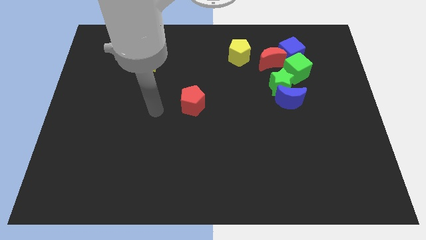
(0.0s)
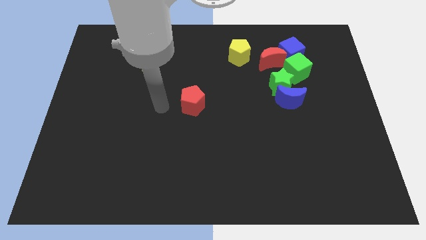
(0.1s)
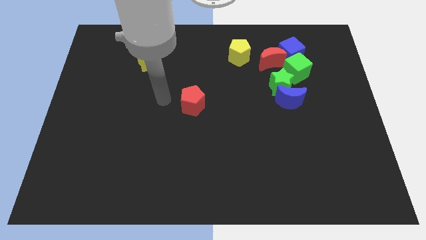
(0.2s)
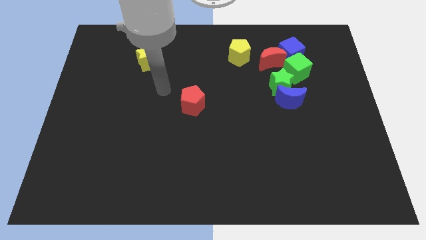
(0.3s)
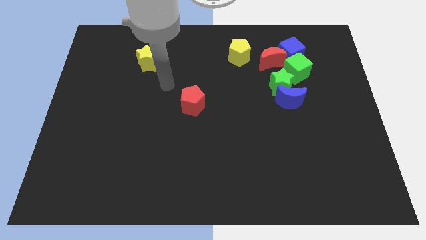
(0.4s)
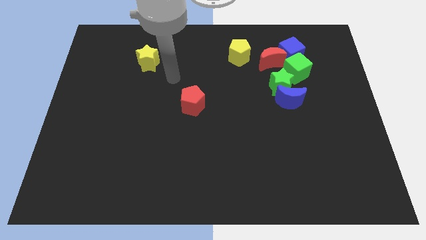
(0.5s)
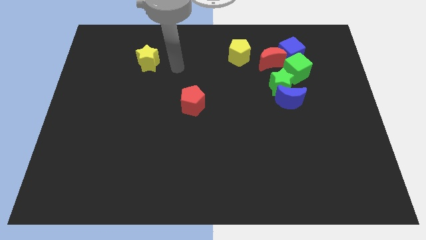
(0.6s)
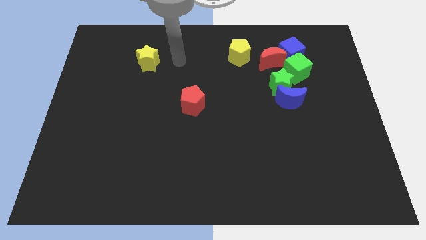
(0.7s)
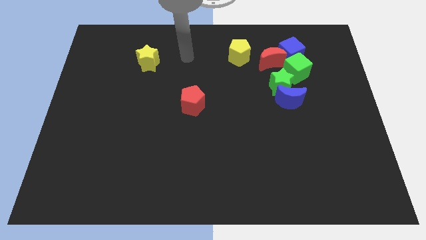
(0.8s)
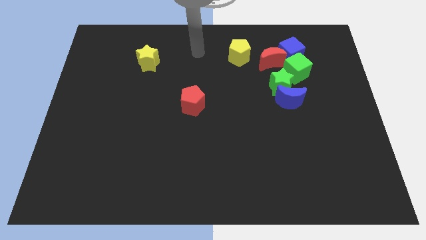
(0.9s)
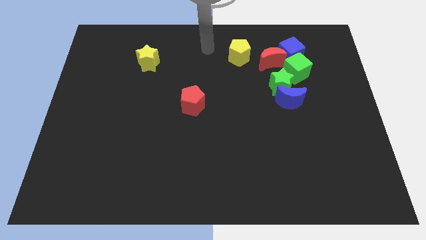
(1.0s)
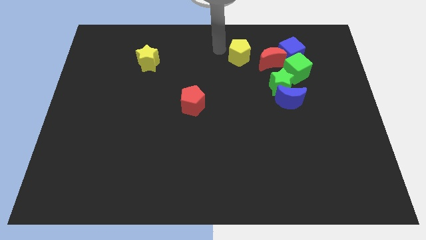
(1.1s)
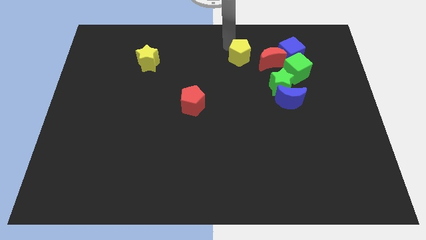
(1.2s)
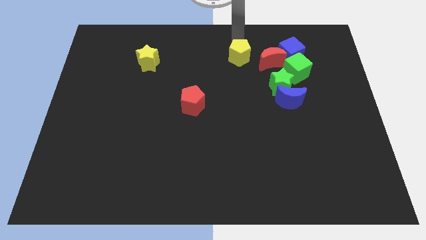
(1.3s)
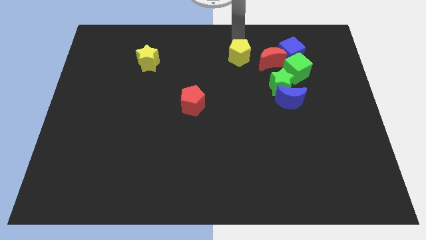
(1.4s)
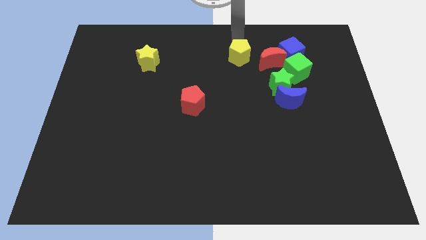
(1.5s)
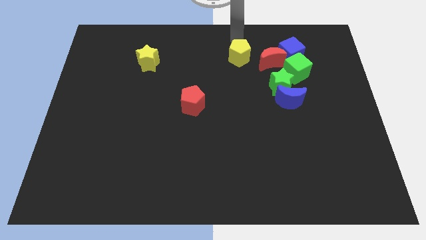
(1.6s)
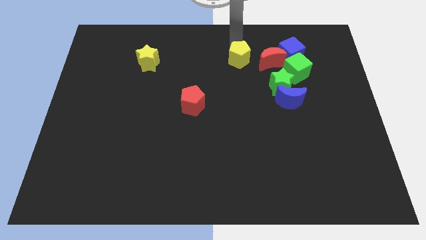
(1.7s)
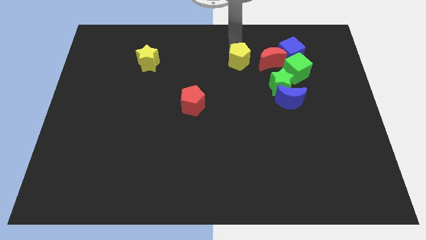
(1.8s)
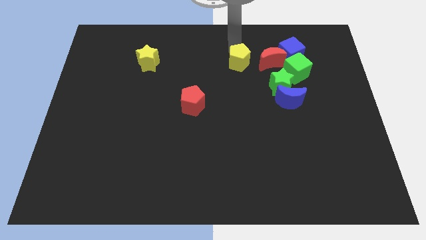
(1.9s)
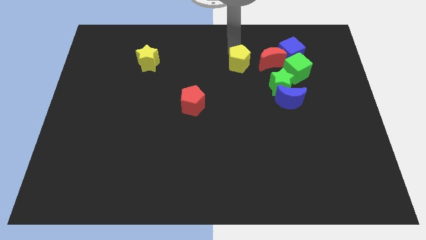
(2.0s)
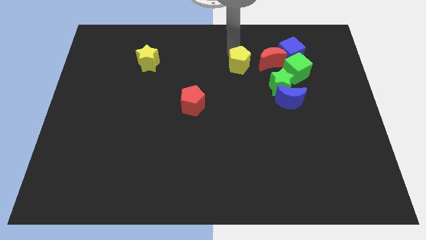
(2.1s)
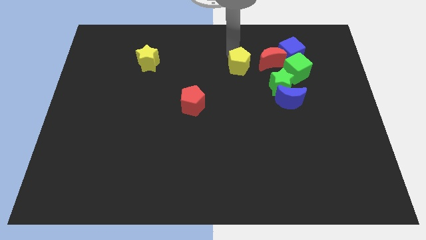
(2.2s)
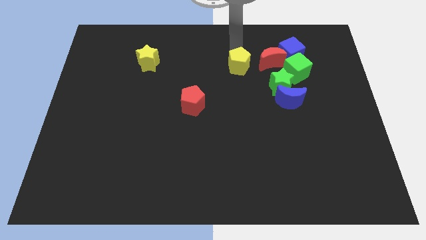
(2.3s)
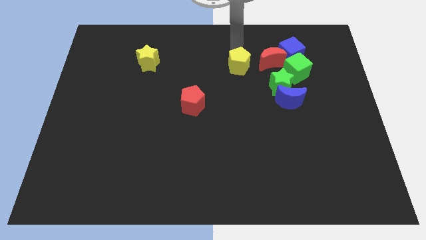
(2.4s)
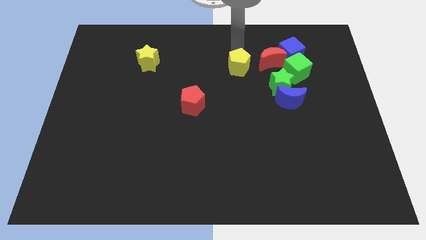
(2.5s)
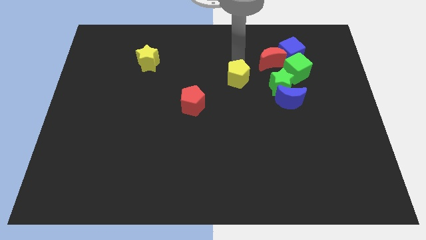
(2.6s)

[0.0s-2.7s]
push the yellow pentagon a little bit down

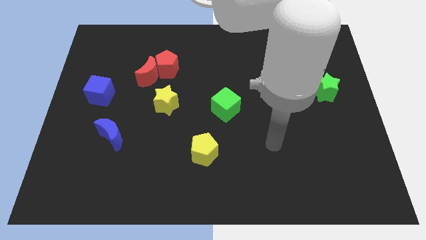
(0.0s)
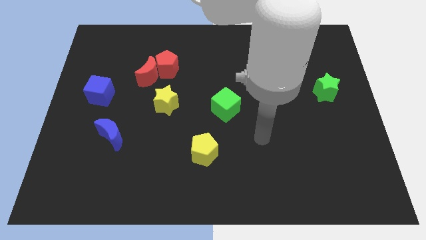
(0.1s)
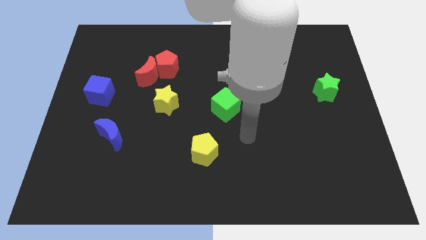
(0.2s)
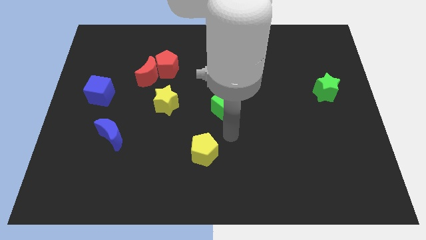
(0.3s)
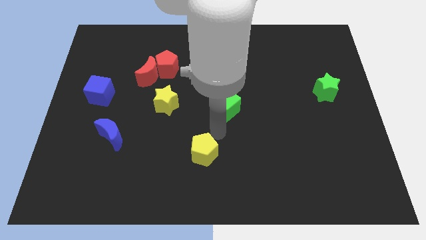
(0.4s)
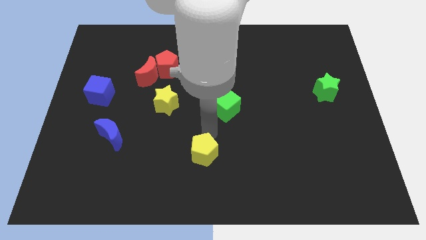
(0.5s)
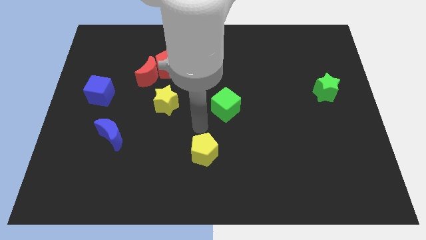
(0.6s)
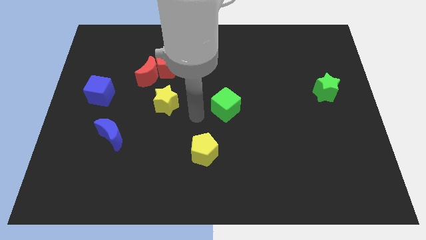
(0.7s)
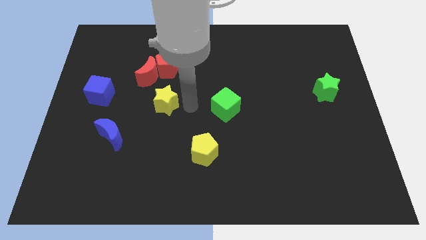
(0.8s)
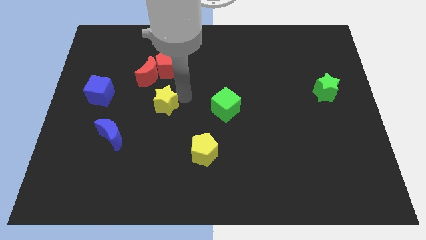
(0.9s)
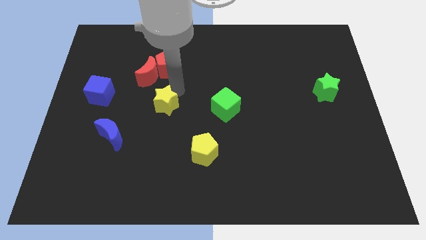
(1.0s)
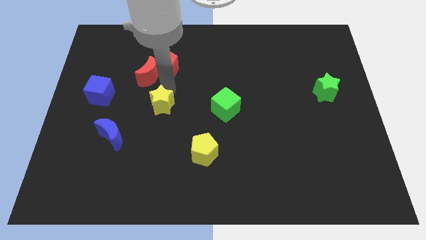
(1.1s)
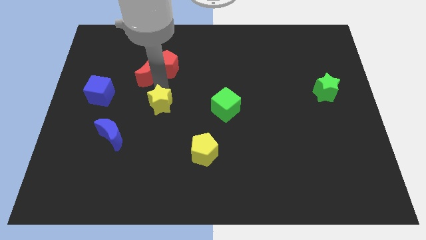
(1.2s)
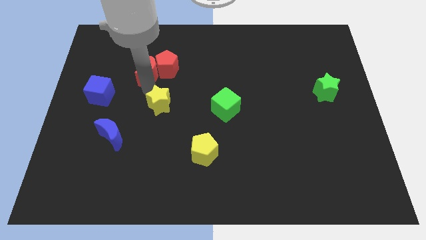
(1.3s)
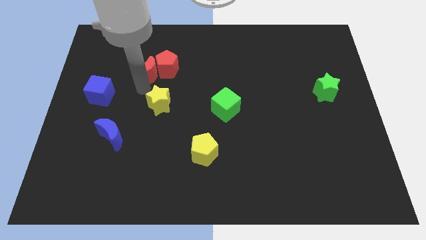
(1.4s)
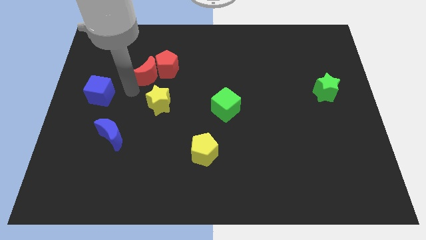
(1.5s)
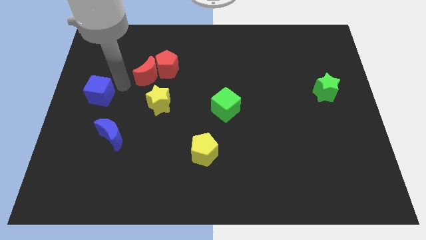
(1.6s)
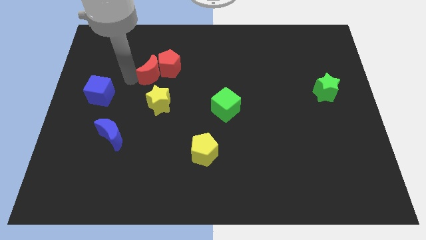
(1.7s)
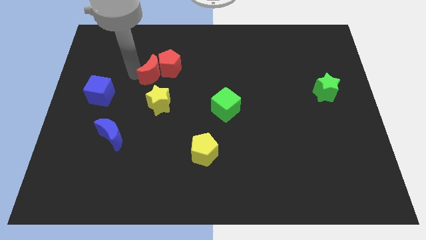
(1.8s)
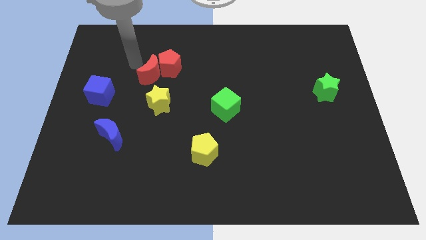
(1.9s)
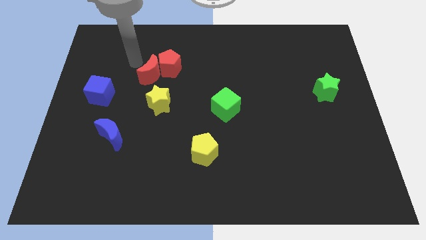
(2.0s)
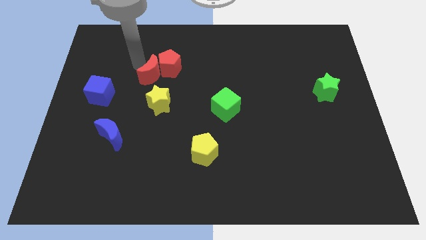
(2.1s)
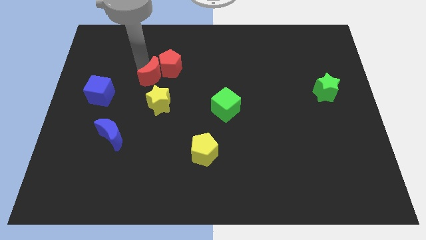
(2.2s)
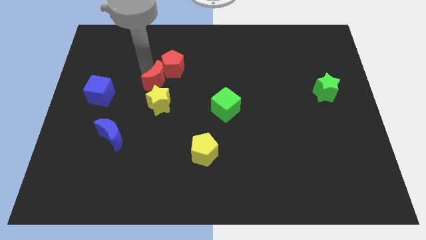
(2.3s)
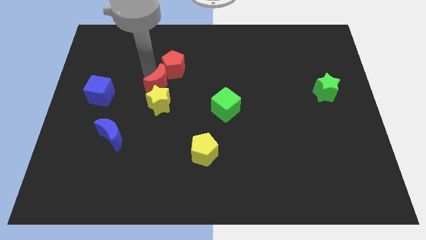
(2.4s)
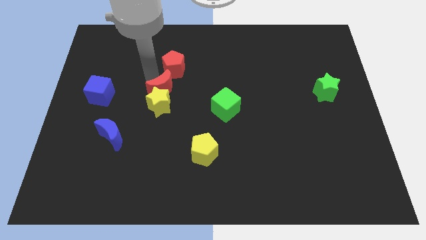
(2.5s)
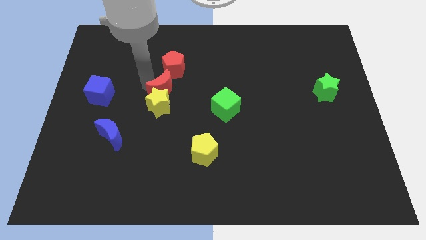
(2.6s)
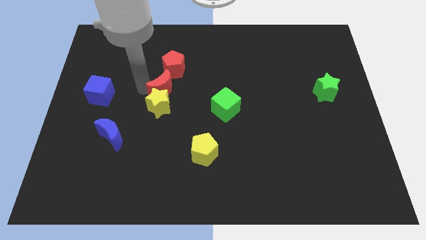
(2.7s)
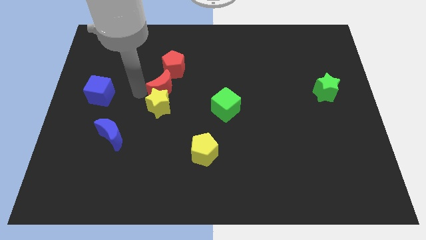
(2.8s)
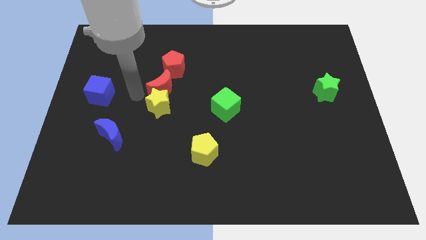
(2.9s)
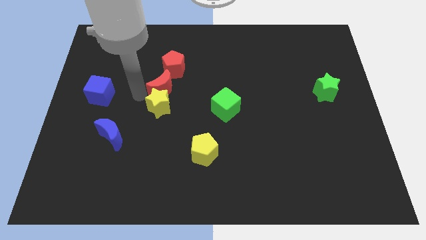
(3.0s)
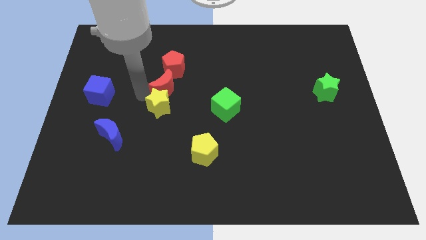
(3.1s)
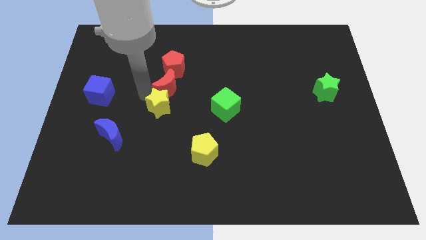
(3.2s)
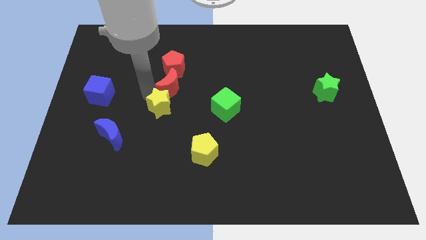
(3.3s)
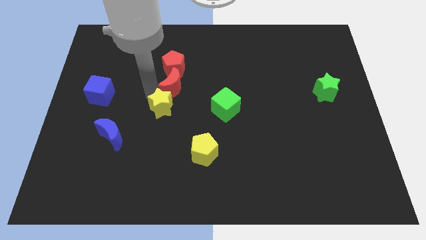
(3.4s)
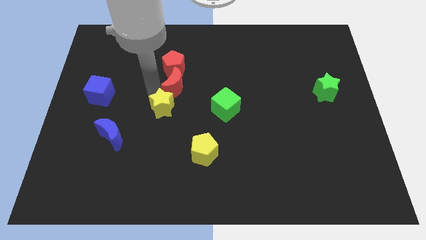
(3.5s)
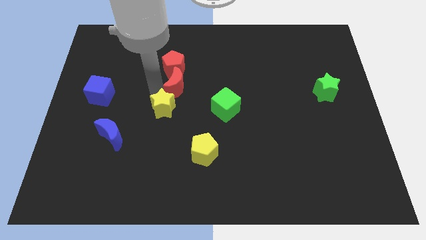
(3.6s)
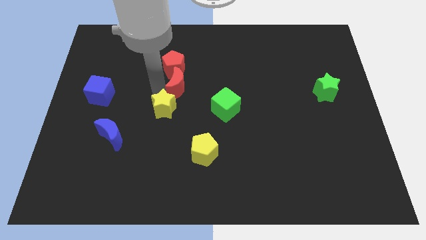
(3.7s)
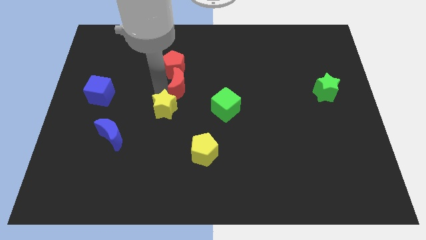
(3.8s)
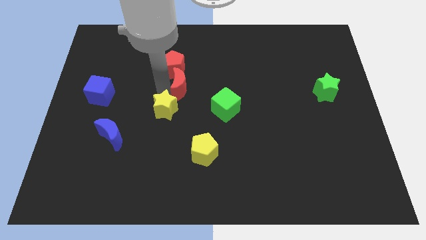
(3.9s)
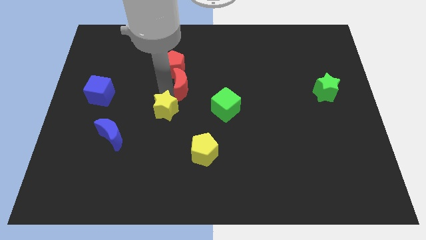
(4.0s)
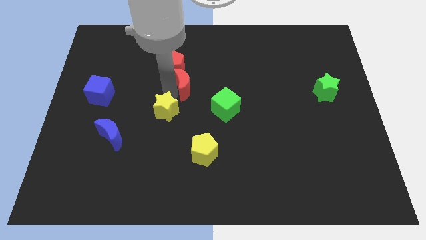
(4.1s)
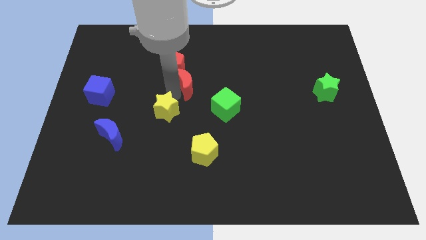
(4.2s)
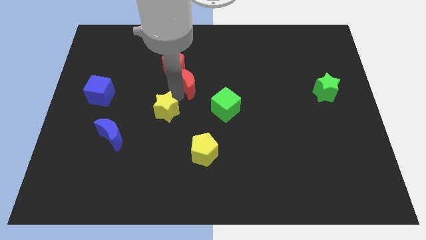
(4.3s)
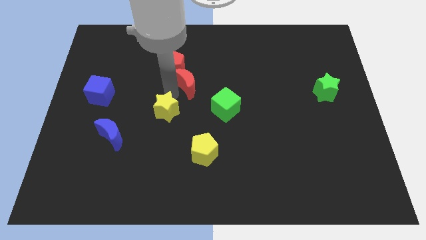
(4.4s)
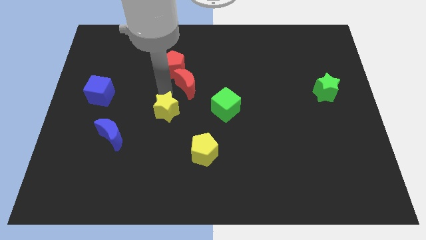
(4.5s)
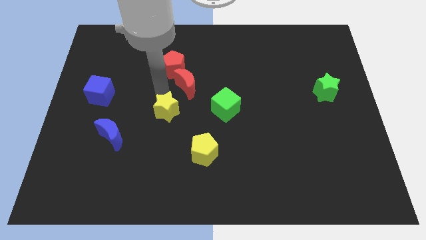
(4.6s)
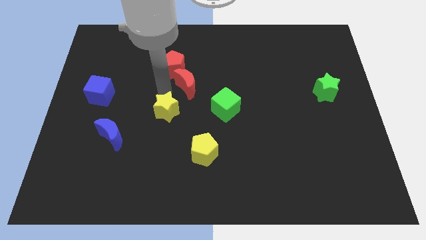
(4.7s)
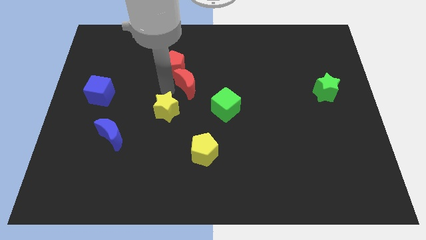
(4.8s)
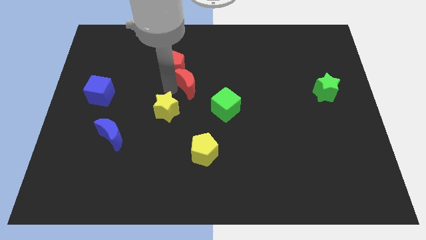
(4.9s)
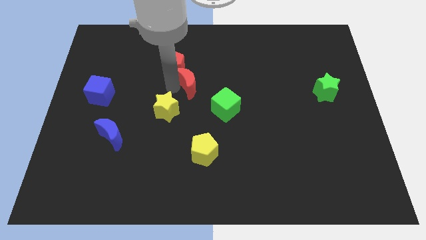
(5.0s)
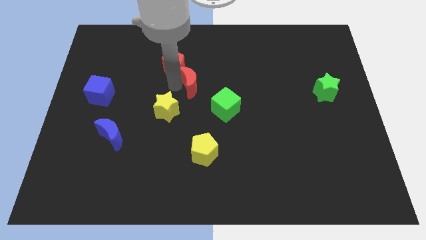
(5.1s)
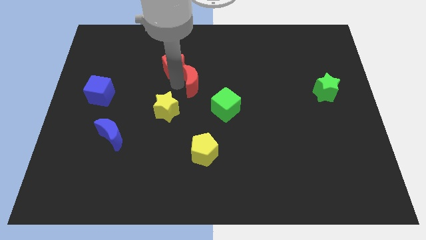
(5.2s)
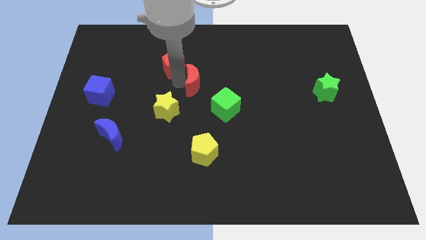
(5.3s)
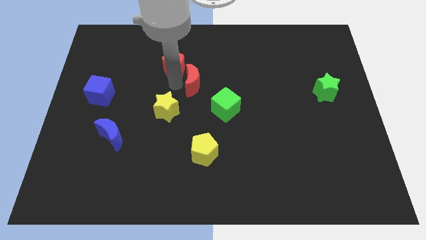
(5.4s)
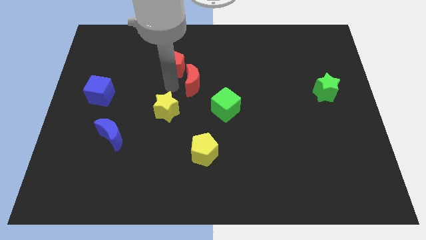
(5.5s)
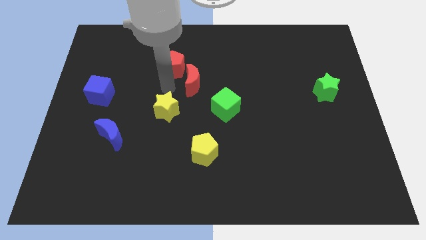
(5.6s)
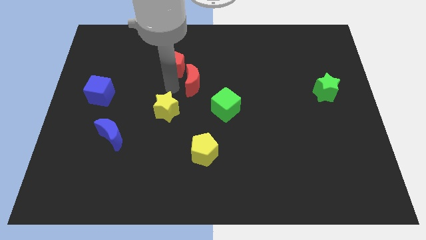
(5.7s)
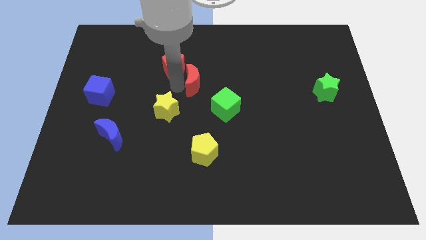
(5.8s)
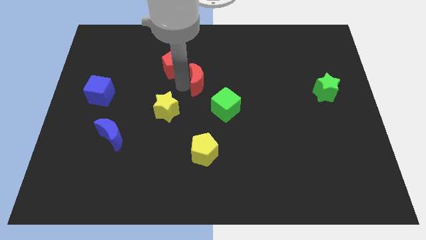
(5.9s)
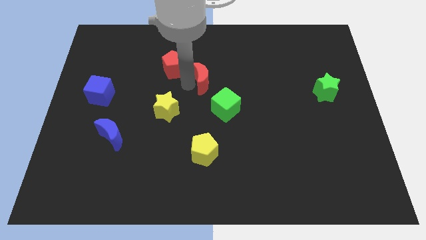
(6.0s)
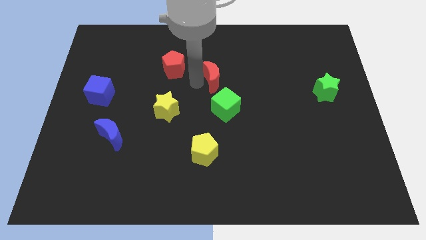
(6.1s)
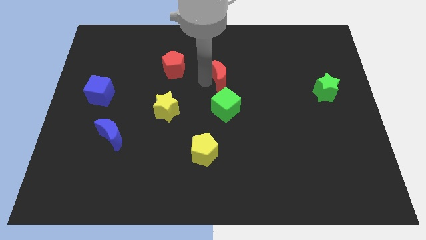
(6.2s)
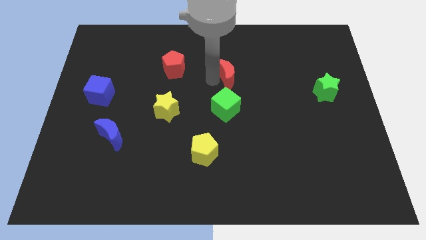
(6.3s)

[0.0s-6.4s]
move the red moon to the right
